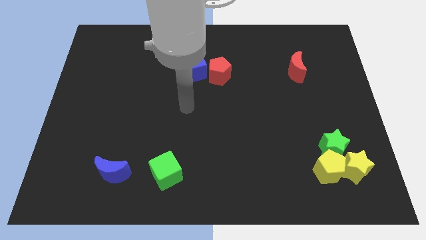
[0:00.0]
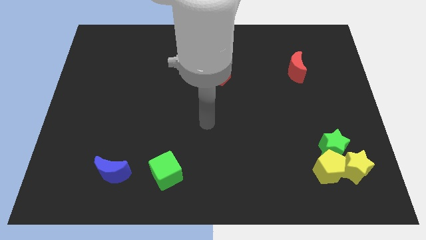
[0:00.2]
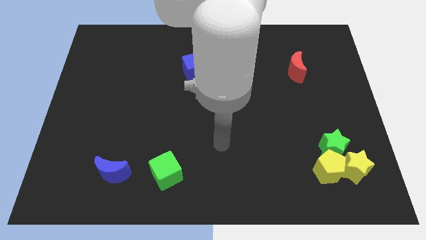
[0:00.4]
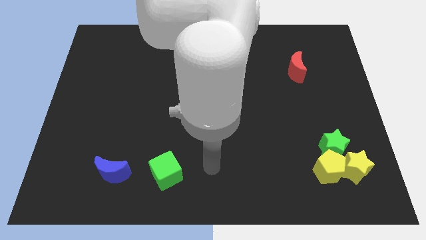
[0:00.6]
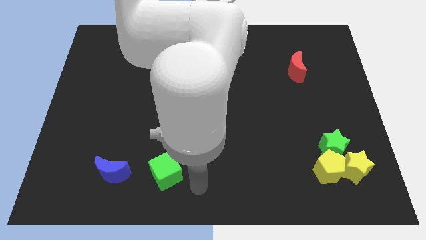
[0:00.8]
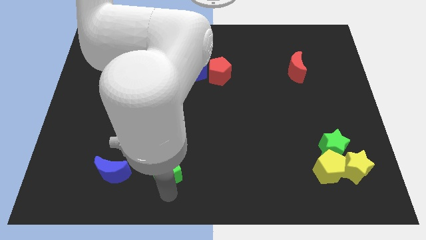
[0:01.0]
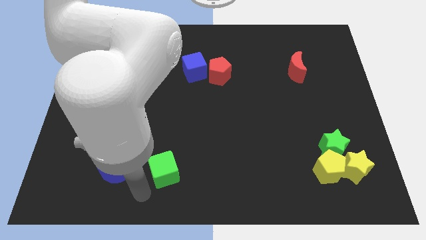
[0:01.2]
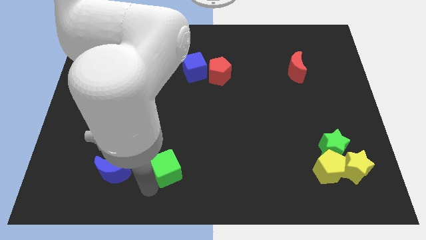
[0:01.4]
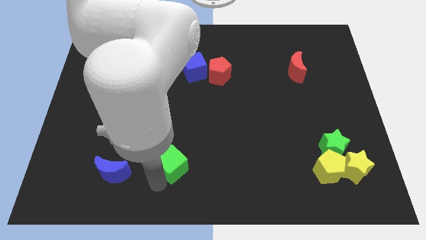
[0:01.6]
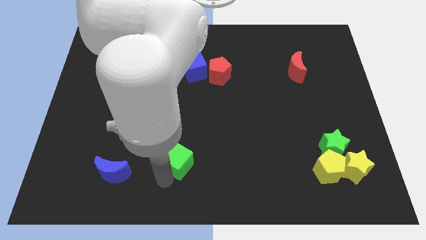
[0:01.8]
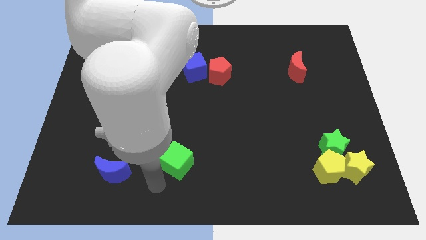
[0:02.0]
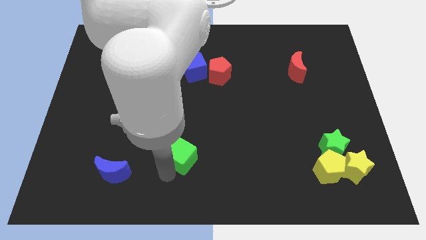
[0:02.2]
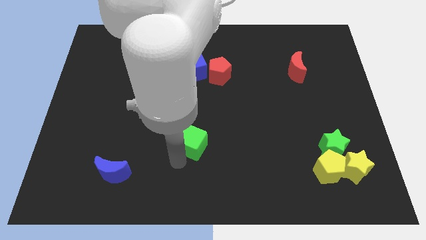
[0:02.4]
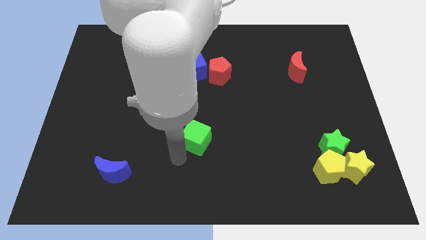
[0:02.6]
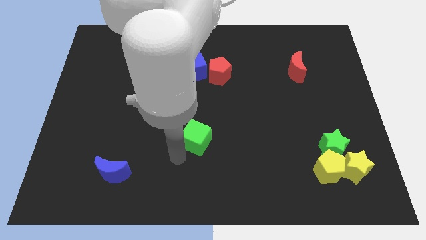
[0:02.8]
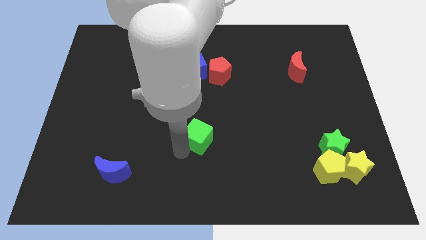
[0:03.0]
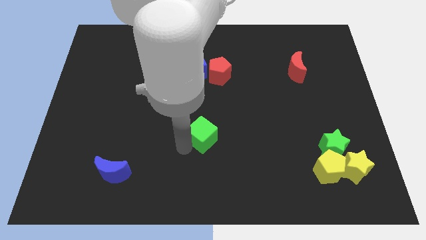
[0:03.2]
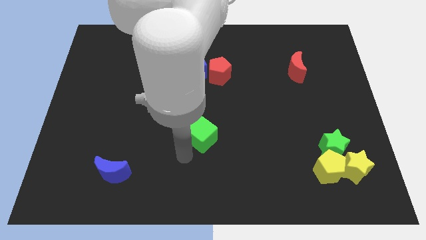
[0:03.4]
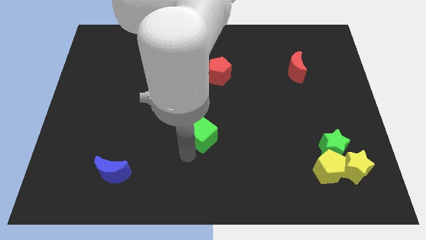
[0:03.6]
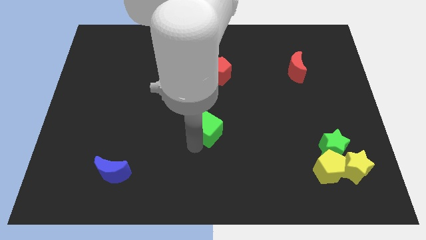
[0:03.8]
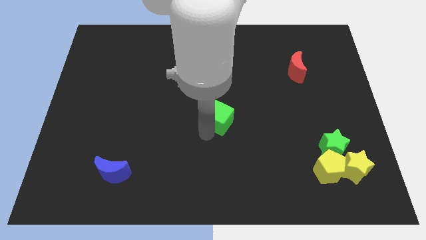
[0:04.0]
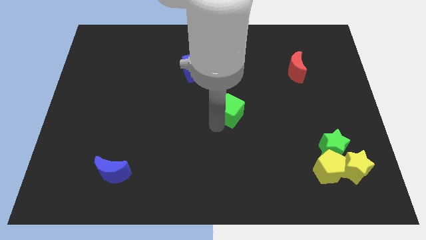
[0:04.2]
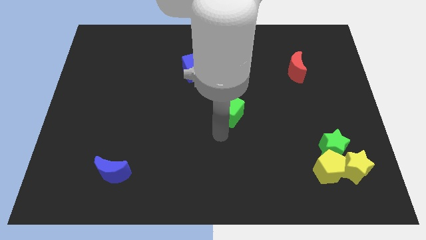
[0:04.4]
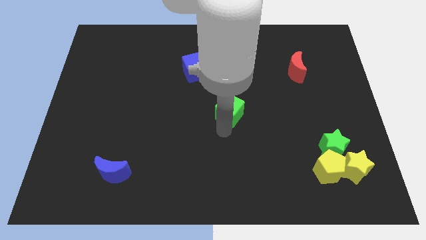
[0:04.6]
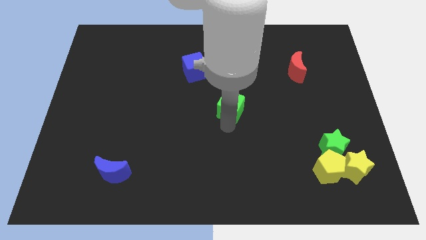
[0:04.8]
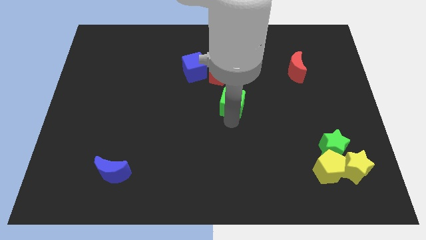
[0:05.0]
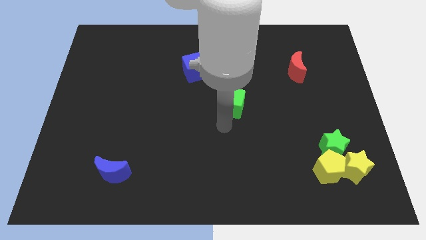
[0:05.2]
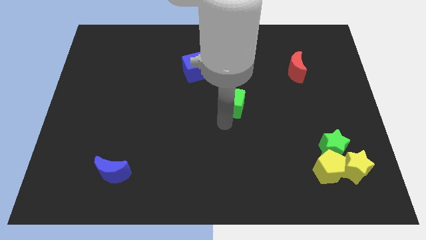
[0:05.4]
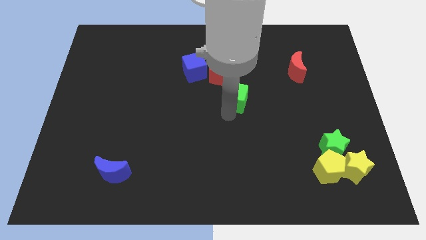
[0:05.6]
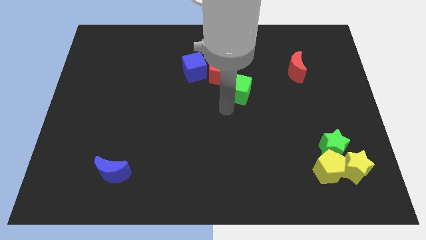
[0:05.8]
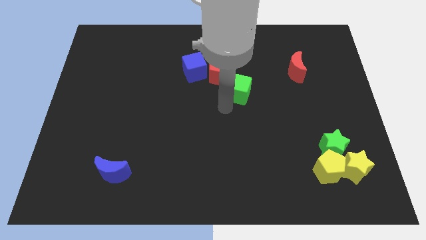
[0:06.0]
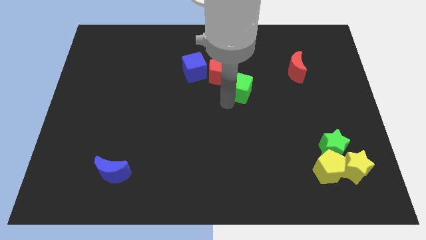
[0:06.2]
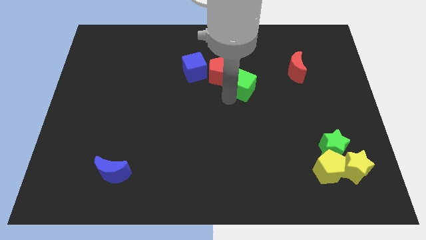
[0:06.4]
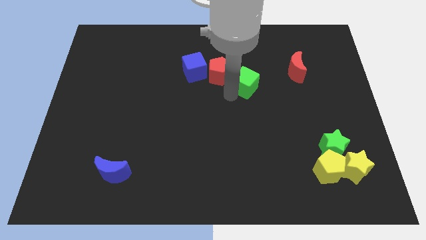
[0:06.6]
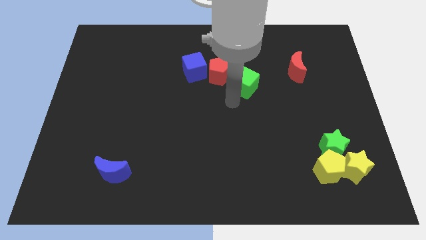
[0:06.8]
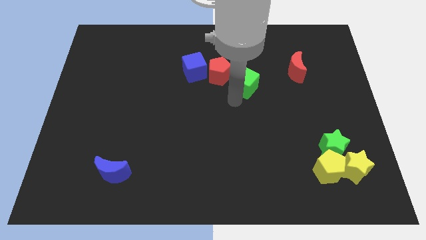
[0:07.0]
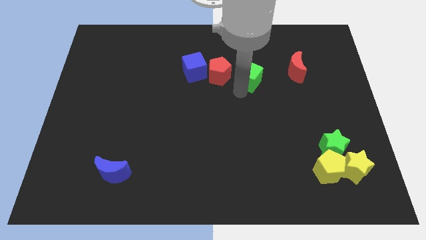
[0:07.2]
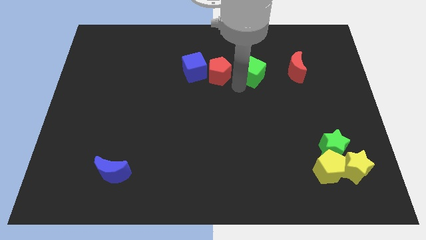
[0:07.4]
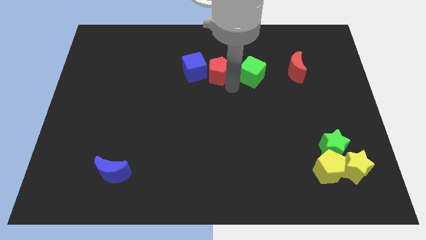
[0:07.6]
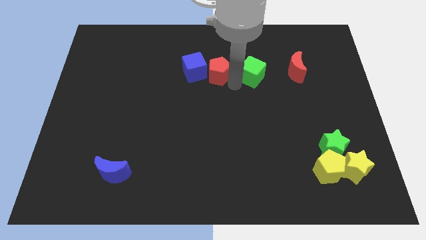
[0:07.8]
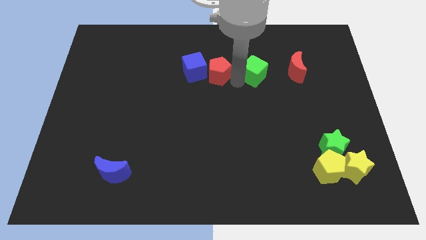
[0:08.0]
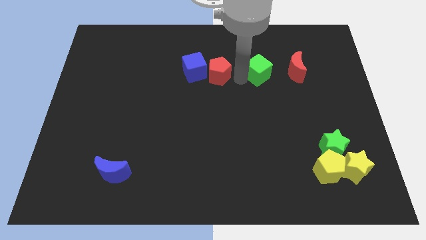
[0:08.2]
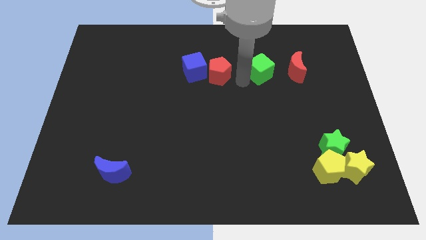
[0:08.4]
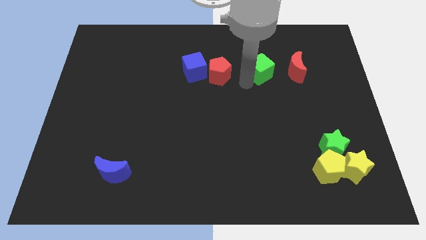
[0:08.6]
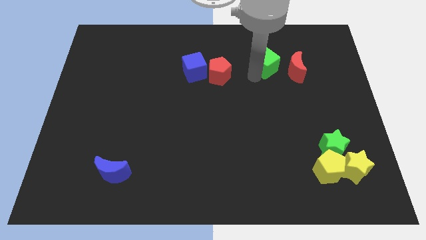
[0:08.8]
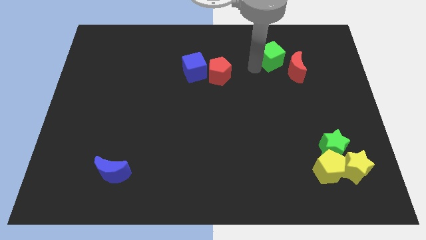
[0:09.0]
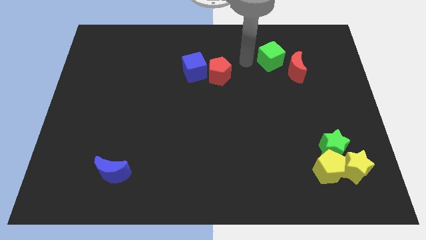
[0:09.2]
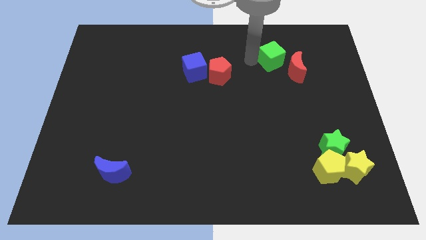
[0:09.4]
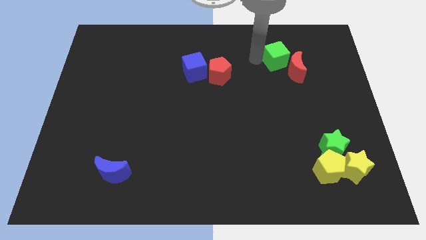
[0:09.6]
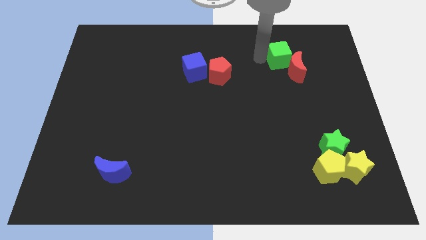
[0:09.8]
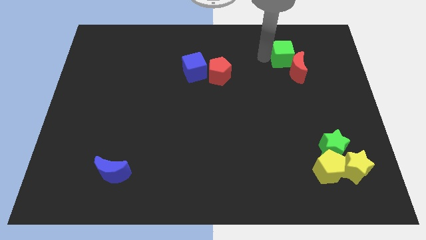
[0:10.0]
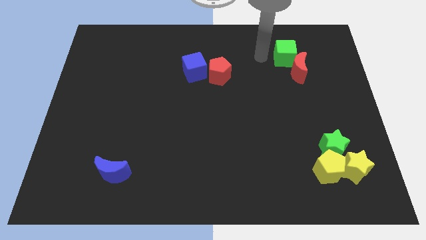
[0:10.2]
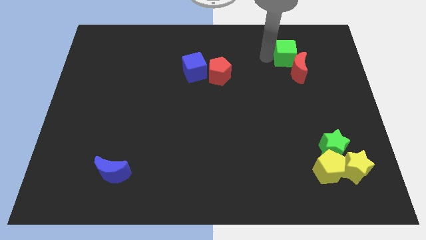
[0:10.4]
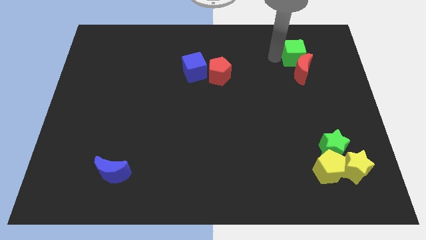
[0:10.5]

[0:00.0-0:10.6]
push the green cube diagonally up and to the right of the red moon

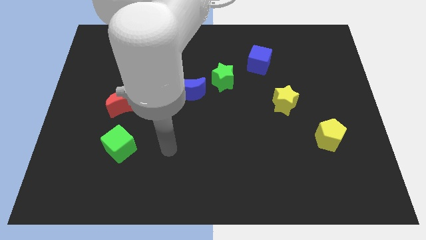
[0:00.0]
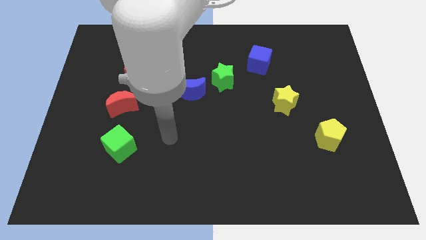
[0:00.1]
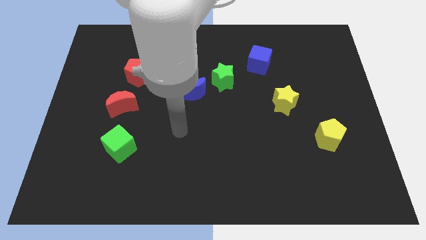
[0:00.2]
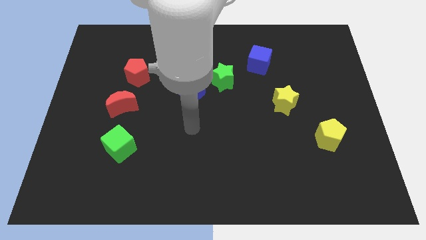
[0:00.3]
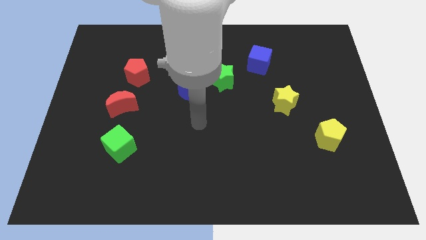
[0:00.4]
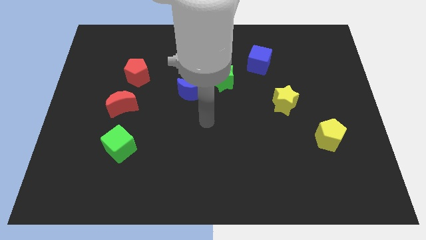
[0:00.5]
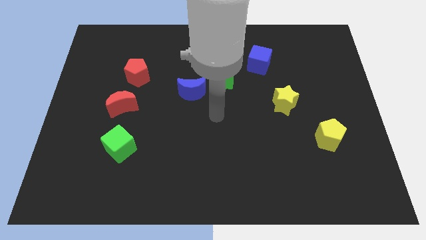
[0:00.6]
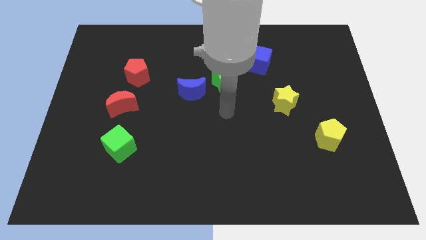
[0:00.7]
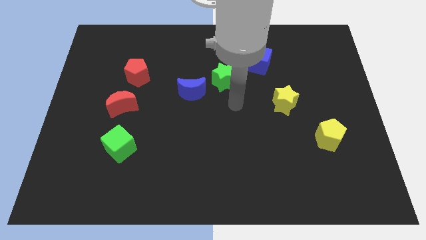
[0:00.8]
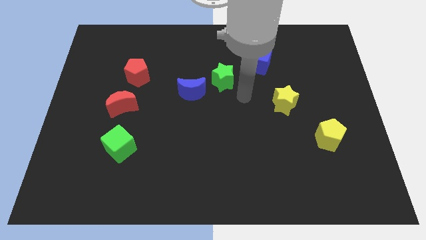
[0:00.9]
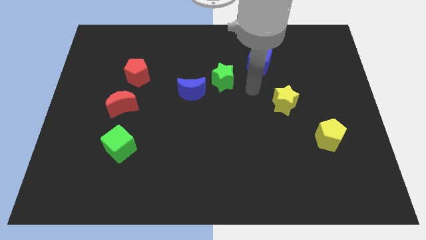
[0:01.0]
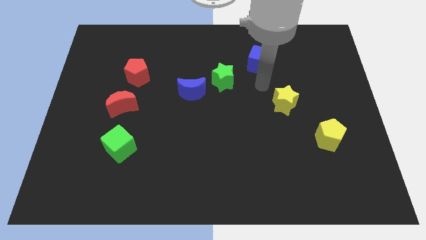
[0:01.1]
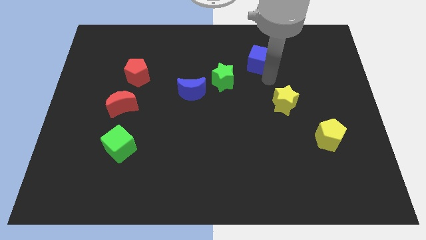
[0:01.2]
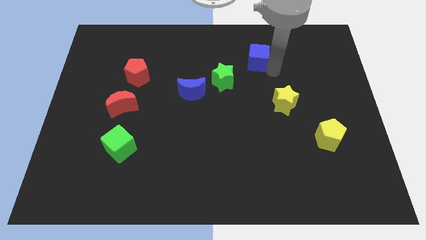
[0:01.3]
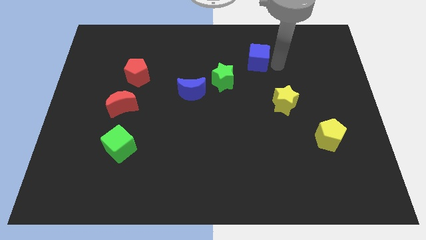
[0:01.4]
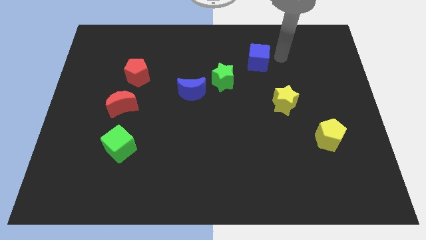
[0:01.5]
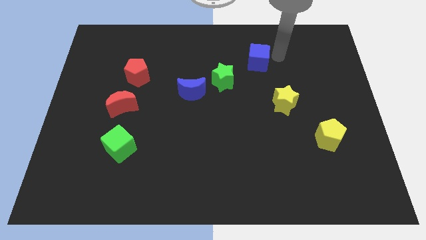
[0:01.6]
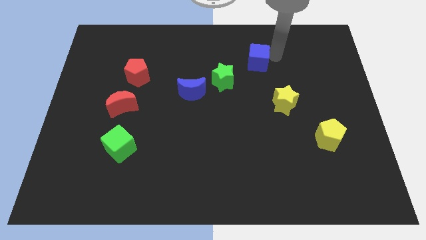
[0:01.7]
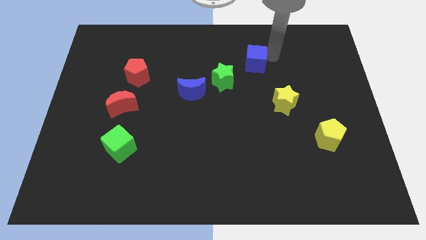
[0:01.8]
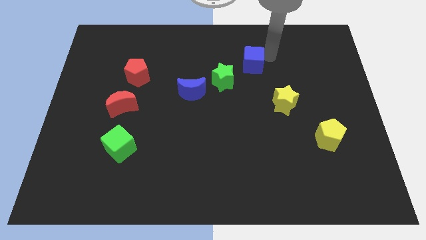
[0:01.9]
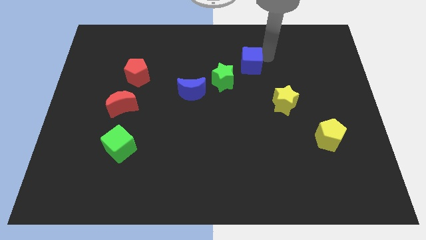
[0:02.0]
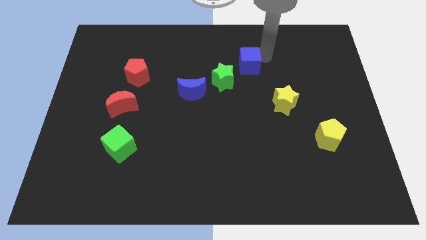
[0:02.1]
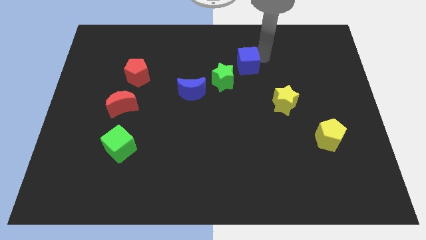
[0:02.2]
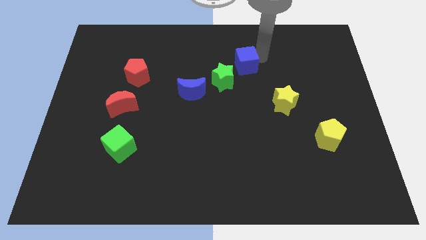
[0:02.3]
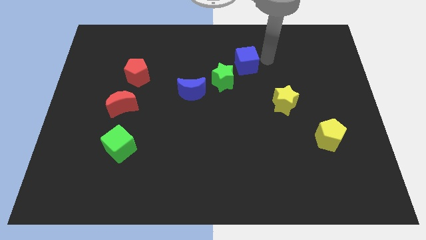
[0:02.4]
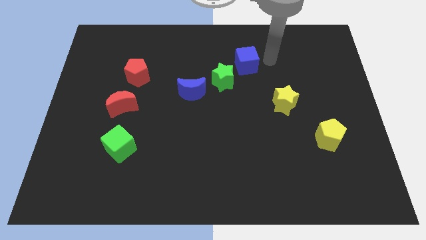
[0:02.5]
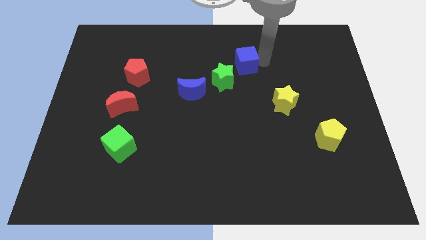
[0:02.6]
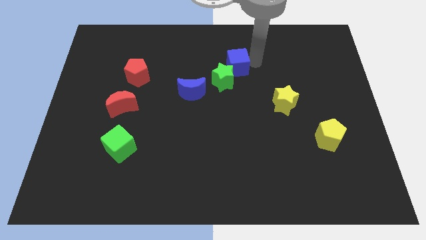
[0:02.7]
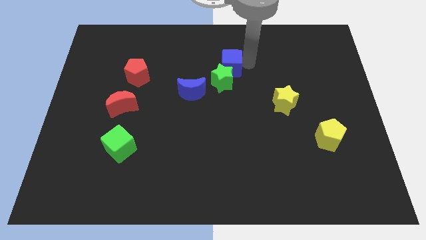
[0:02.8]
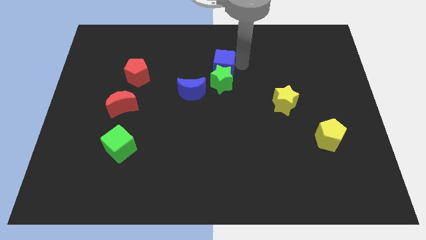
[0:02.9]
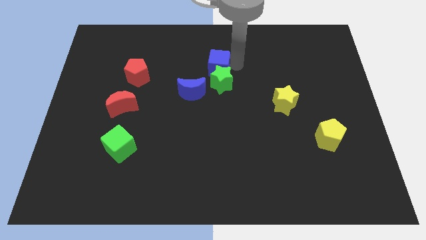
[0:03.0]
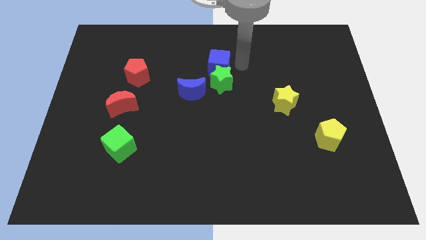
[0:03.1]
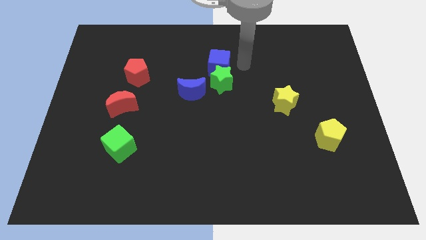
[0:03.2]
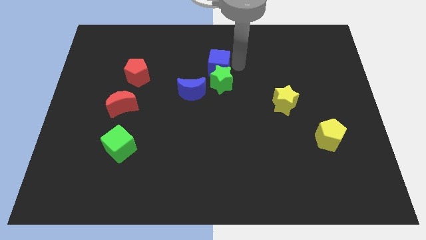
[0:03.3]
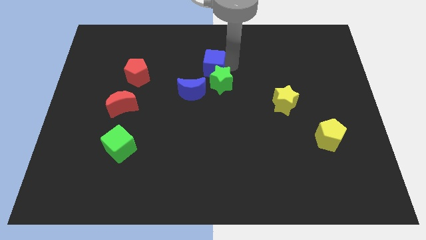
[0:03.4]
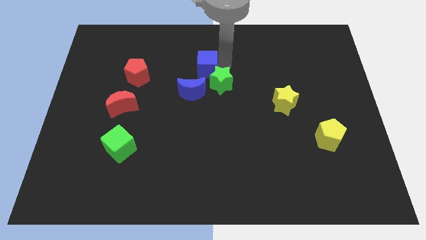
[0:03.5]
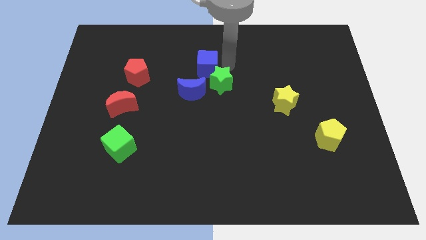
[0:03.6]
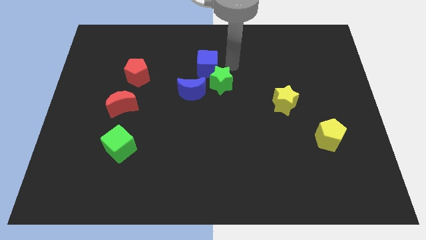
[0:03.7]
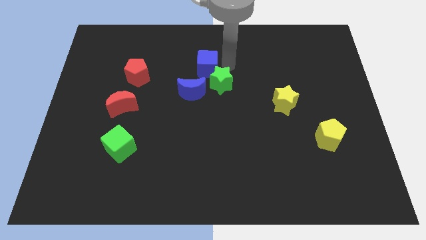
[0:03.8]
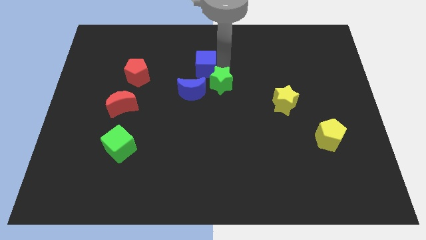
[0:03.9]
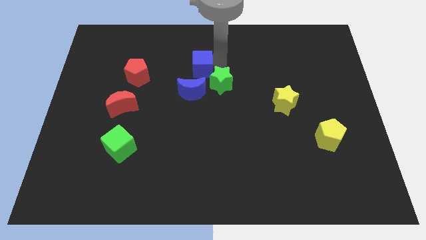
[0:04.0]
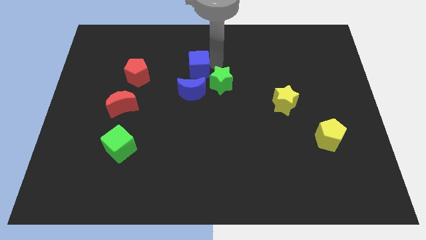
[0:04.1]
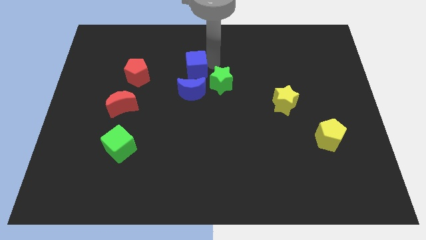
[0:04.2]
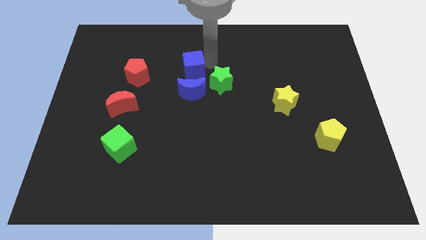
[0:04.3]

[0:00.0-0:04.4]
slide the blue cube to the left side of the green star
